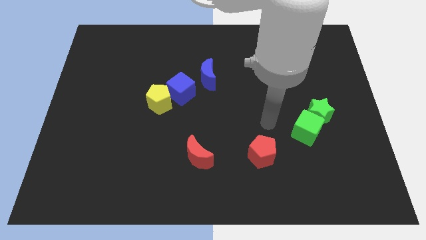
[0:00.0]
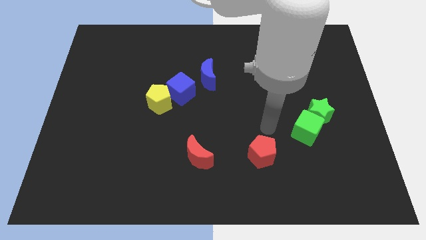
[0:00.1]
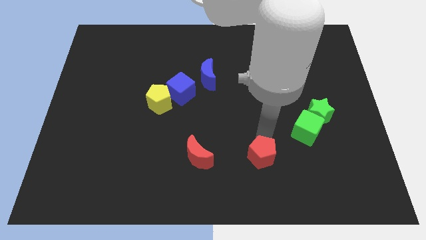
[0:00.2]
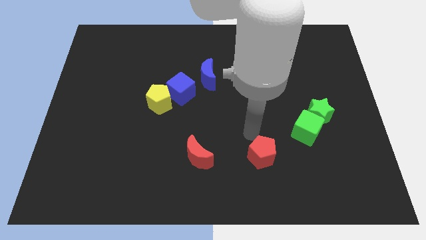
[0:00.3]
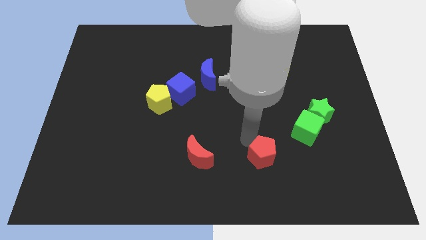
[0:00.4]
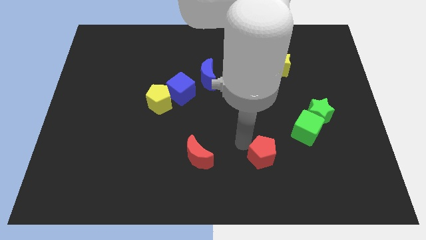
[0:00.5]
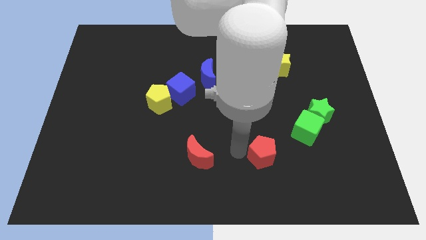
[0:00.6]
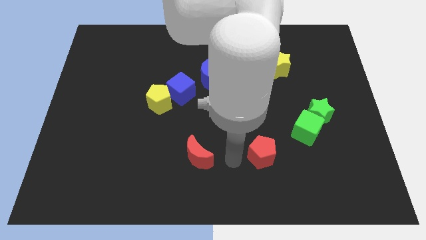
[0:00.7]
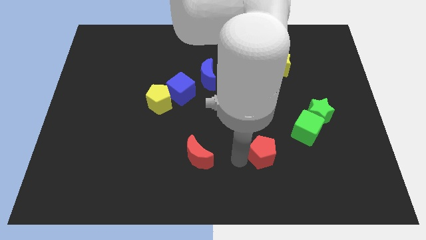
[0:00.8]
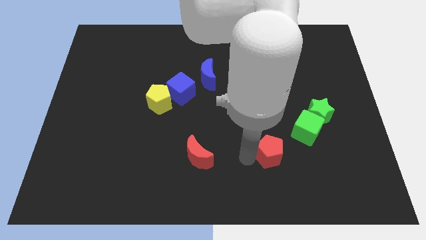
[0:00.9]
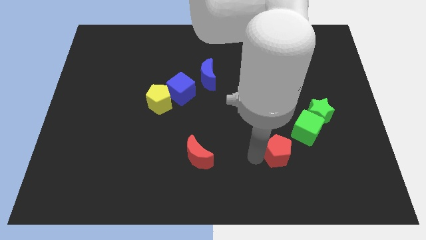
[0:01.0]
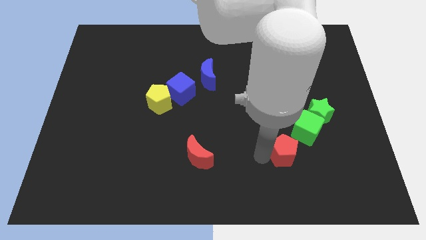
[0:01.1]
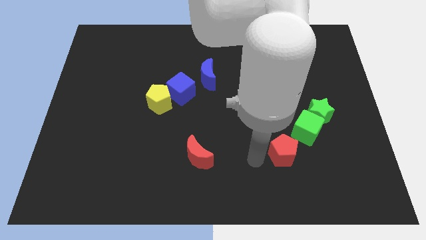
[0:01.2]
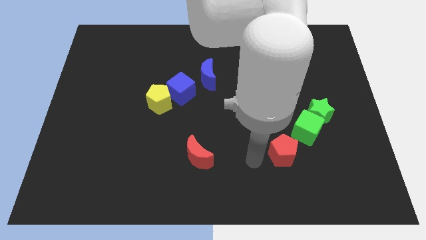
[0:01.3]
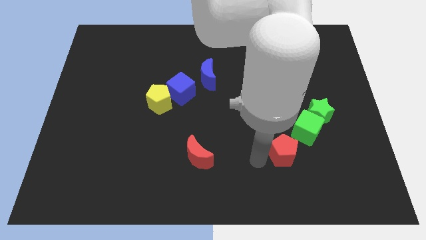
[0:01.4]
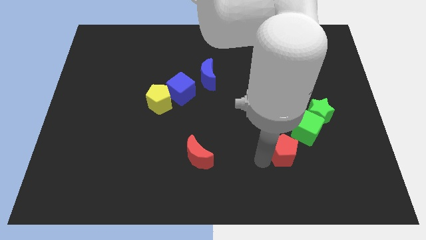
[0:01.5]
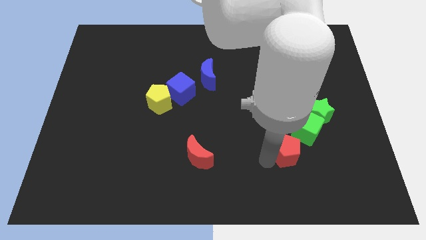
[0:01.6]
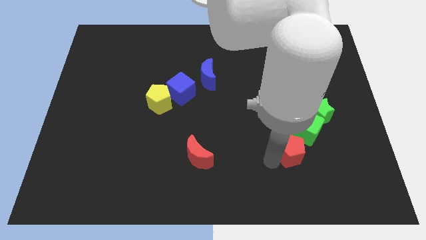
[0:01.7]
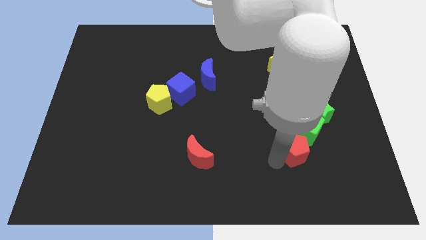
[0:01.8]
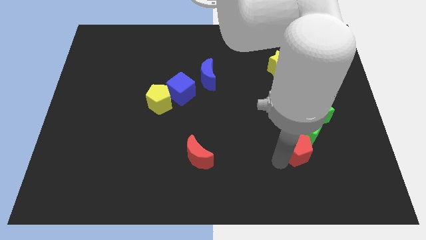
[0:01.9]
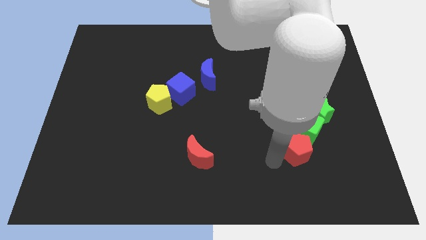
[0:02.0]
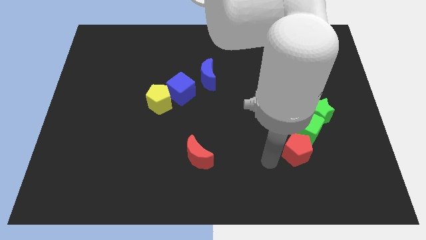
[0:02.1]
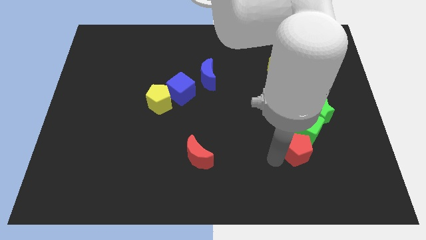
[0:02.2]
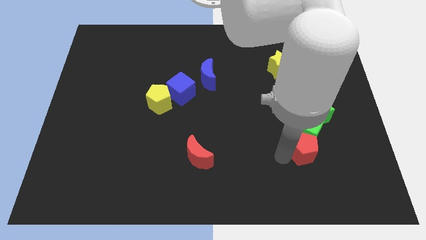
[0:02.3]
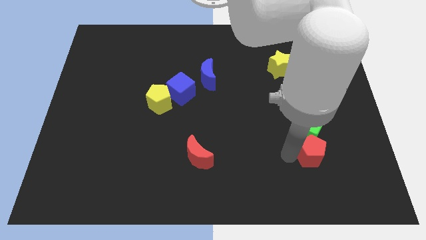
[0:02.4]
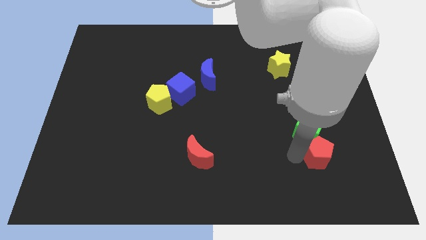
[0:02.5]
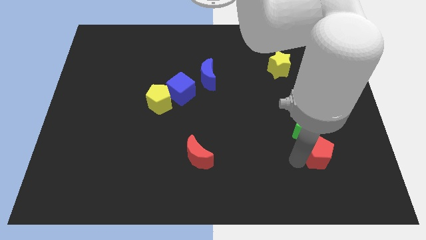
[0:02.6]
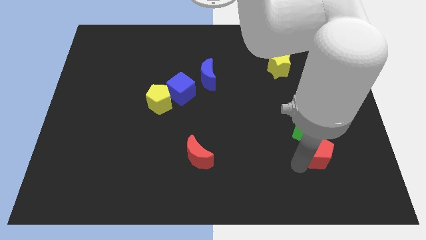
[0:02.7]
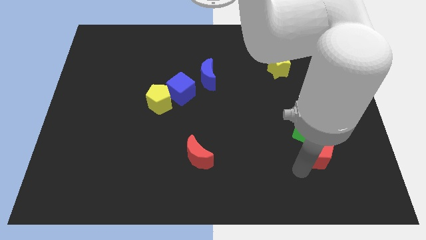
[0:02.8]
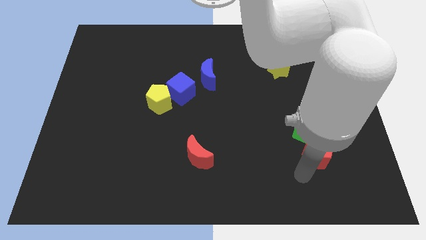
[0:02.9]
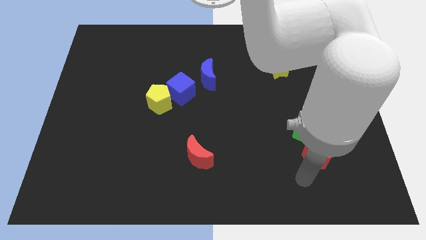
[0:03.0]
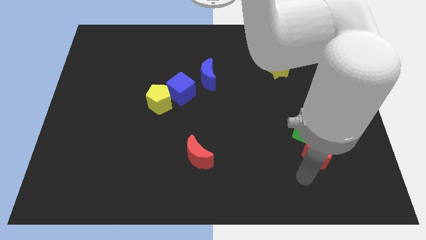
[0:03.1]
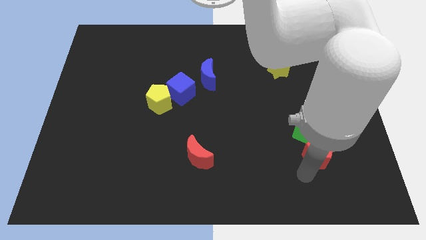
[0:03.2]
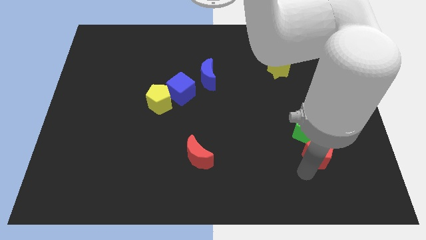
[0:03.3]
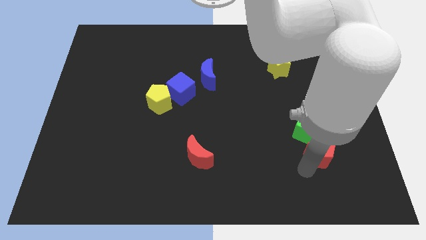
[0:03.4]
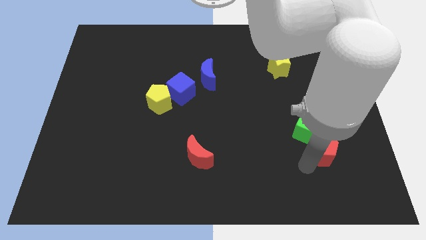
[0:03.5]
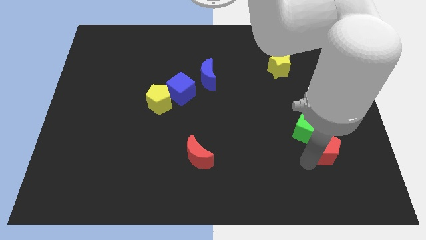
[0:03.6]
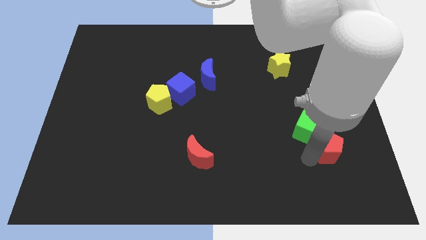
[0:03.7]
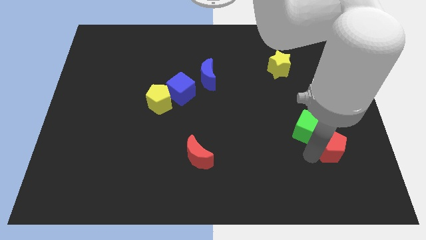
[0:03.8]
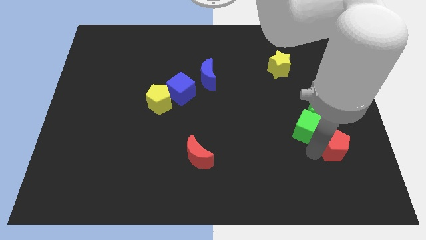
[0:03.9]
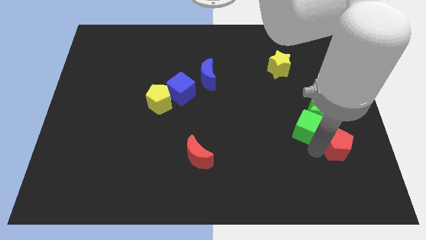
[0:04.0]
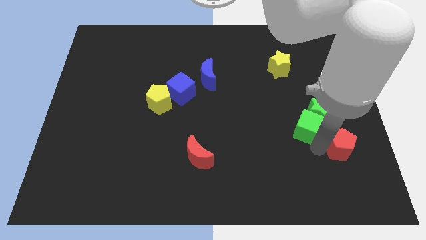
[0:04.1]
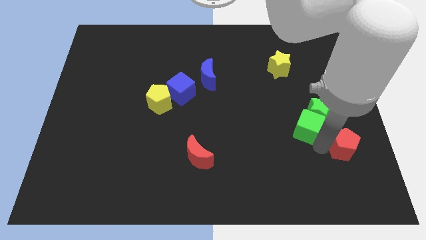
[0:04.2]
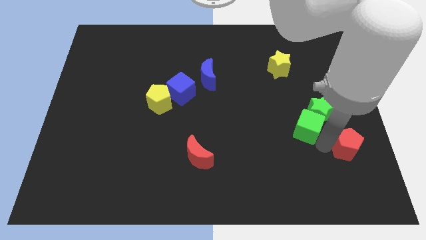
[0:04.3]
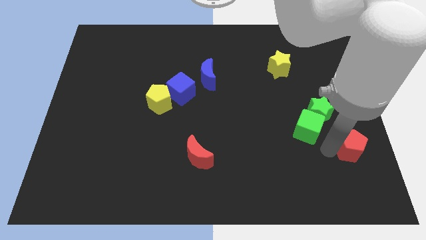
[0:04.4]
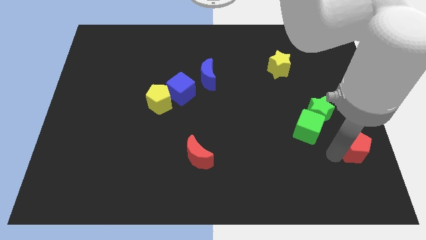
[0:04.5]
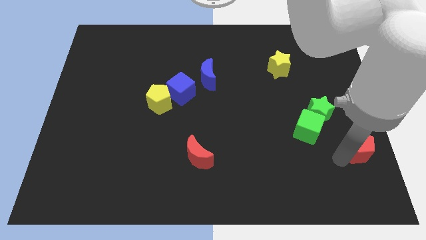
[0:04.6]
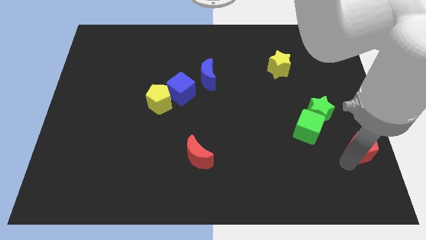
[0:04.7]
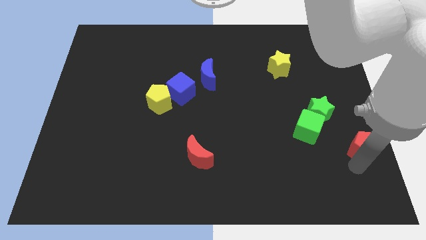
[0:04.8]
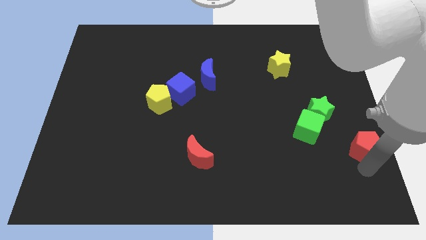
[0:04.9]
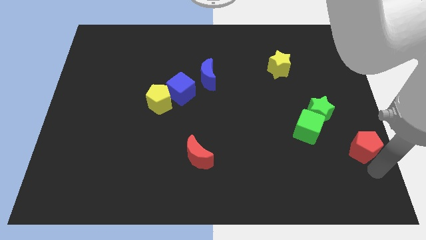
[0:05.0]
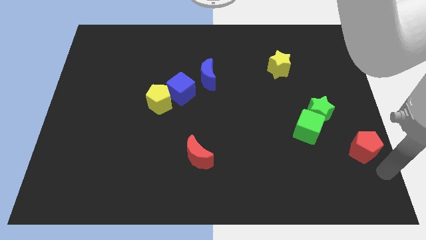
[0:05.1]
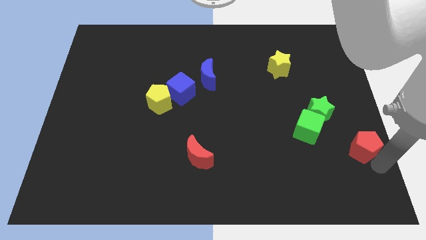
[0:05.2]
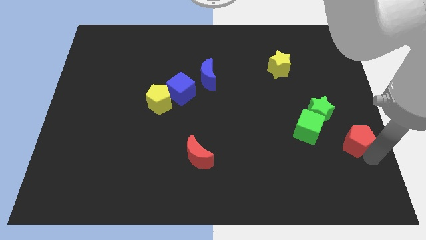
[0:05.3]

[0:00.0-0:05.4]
push the red pentagon to the right side of the board

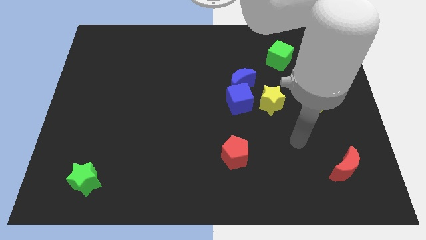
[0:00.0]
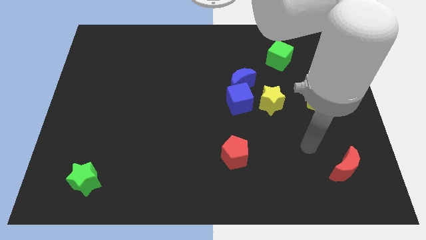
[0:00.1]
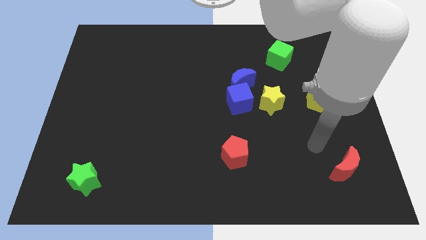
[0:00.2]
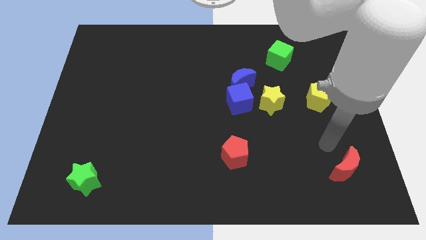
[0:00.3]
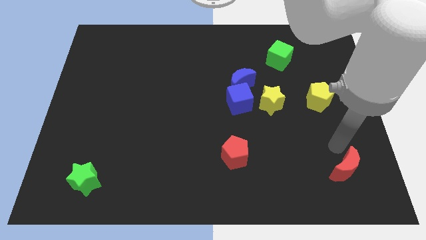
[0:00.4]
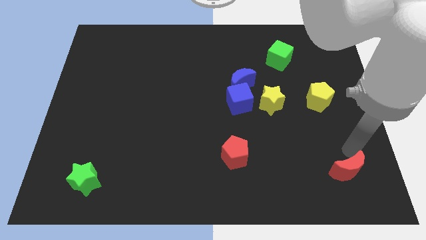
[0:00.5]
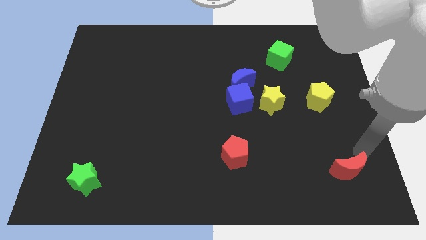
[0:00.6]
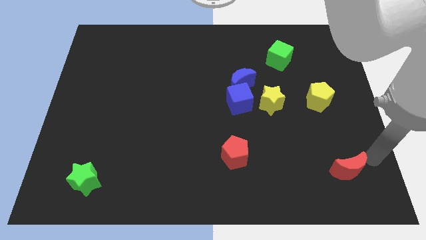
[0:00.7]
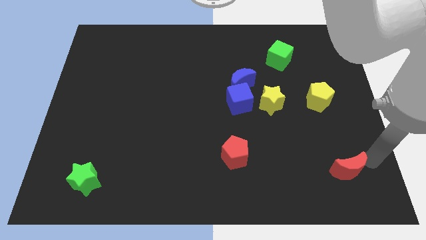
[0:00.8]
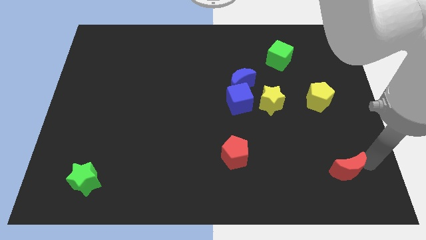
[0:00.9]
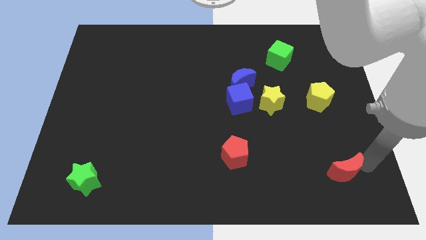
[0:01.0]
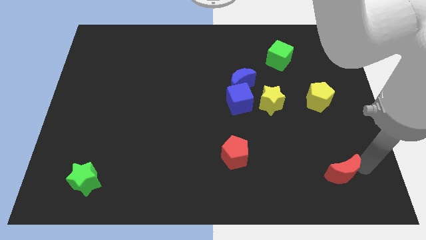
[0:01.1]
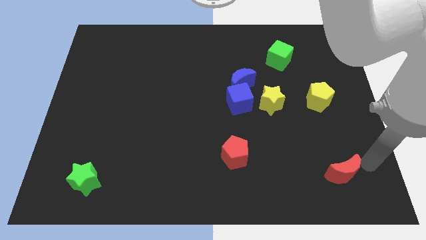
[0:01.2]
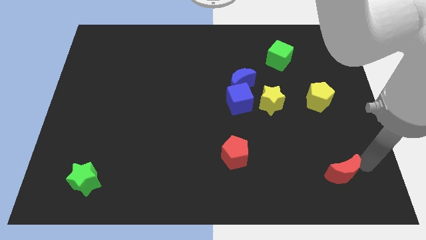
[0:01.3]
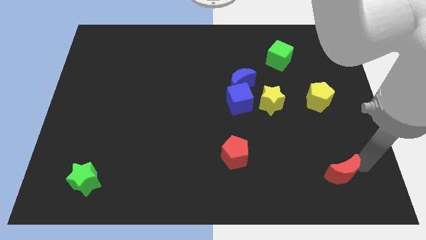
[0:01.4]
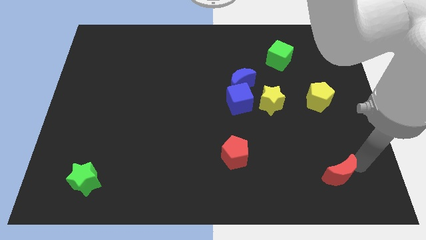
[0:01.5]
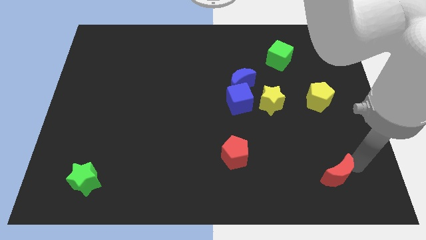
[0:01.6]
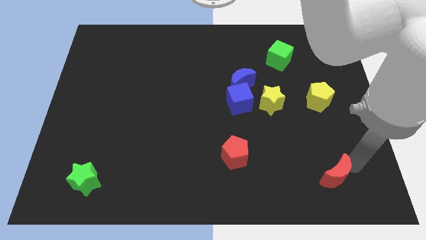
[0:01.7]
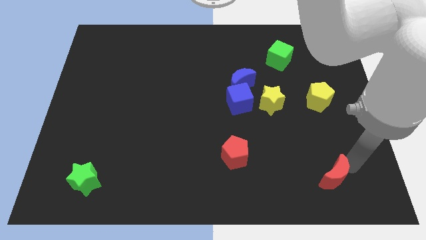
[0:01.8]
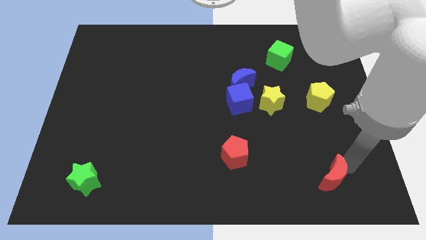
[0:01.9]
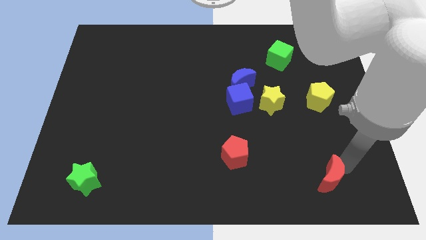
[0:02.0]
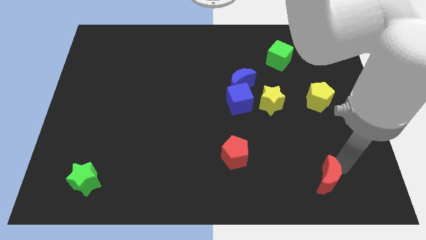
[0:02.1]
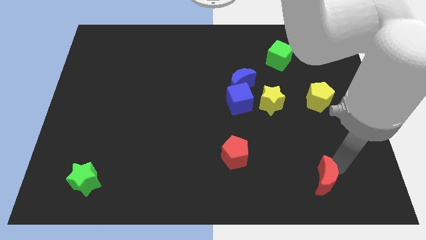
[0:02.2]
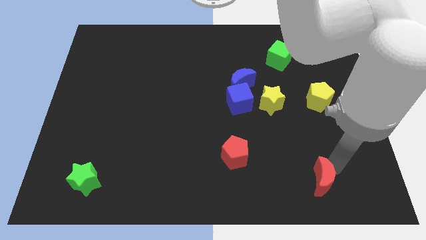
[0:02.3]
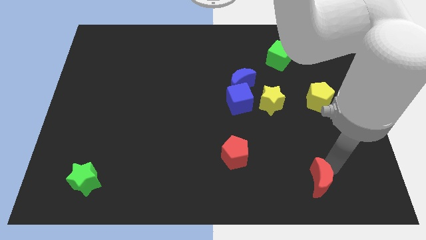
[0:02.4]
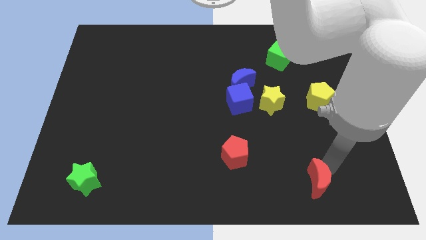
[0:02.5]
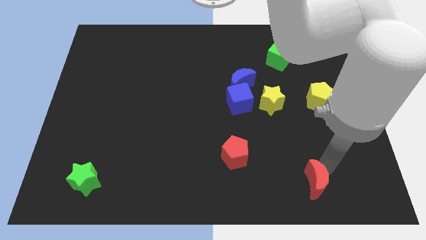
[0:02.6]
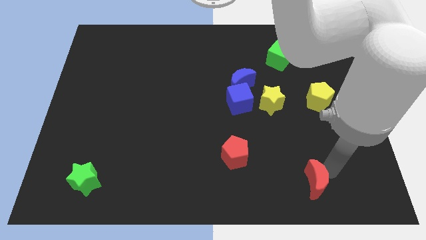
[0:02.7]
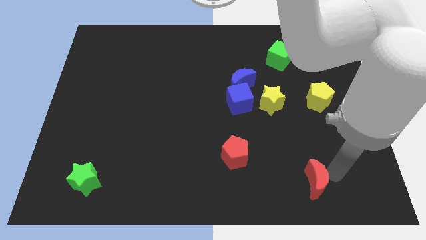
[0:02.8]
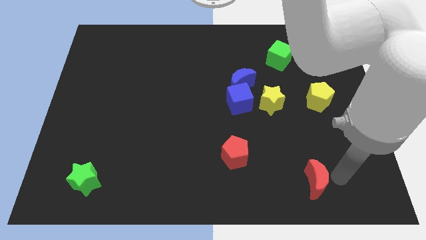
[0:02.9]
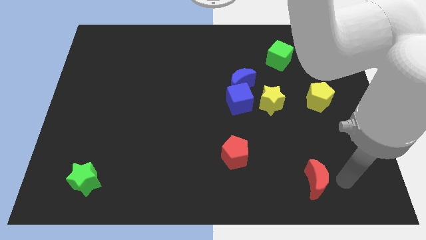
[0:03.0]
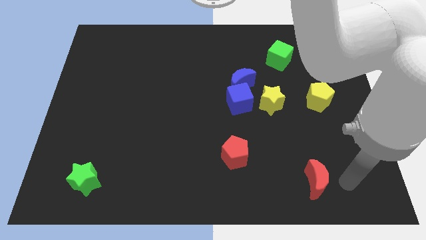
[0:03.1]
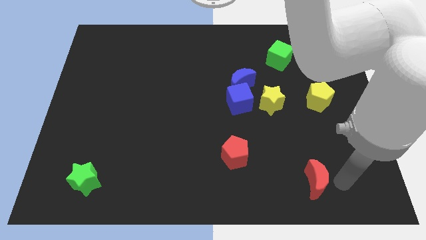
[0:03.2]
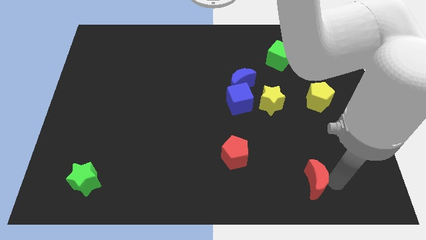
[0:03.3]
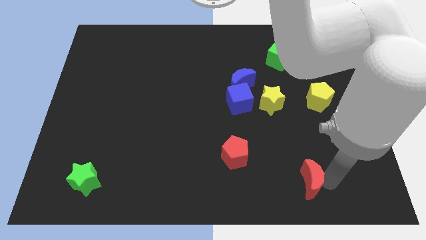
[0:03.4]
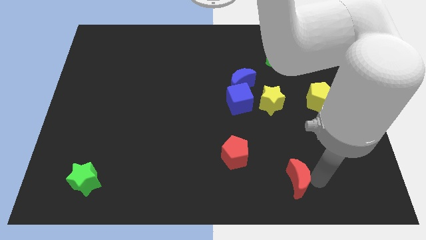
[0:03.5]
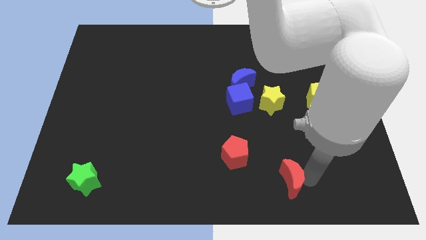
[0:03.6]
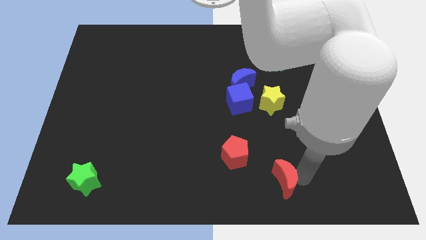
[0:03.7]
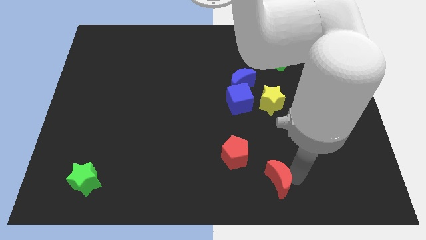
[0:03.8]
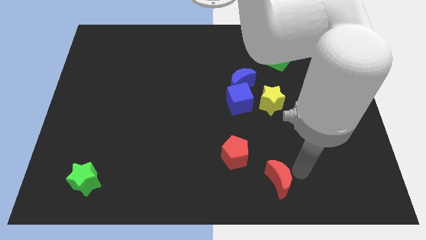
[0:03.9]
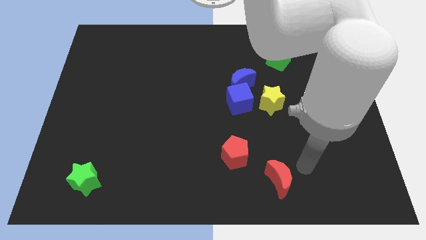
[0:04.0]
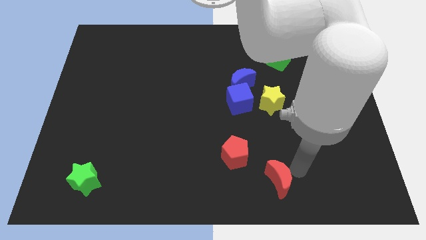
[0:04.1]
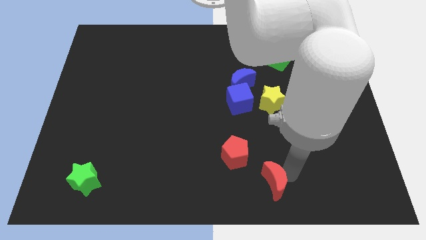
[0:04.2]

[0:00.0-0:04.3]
move the red moon to the bottom side
